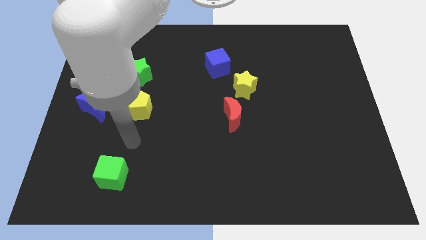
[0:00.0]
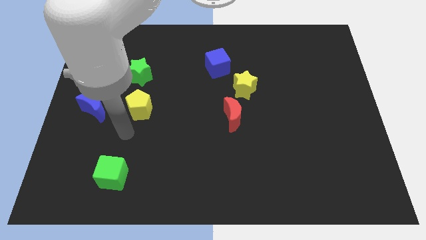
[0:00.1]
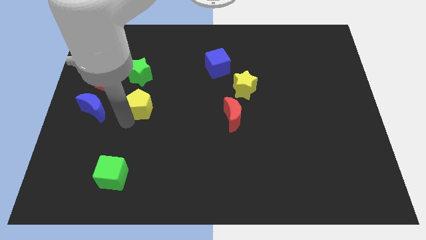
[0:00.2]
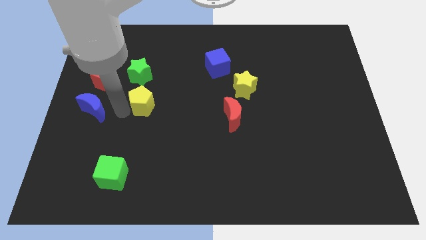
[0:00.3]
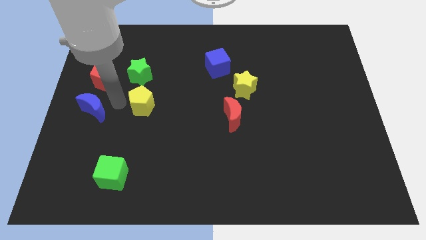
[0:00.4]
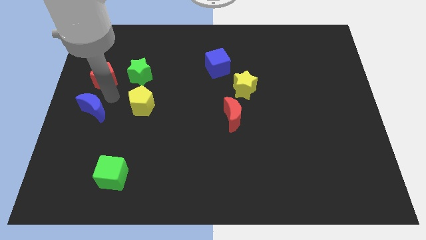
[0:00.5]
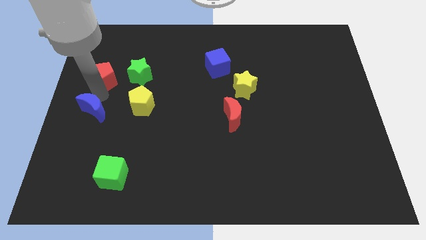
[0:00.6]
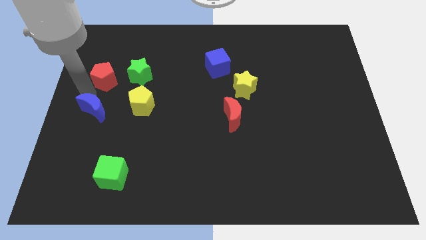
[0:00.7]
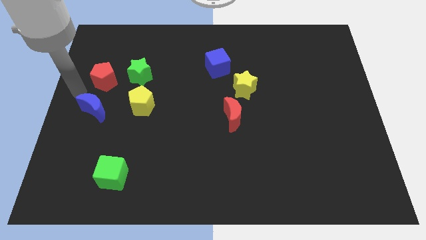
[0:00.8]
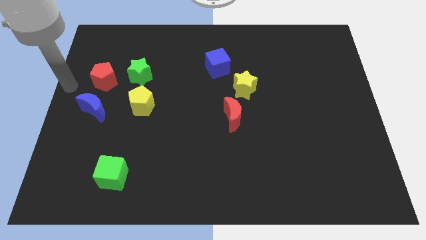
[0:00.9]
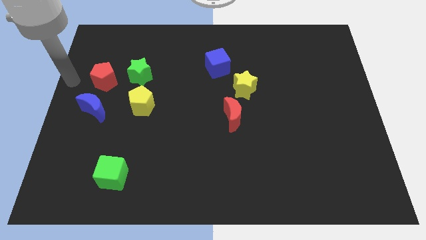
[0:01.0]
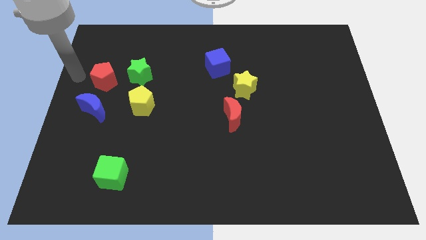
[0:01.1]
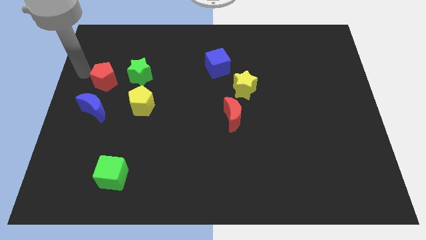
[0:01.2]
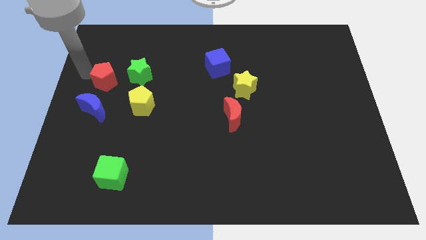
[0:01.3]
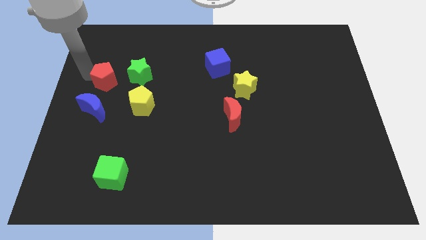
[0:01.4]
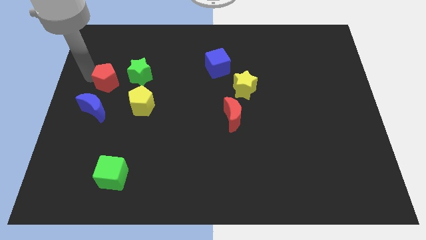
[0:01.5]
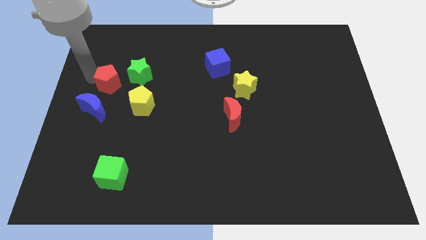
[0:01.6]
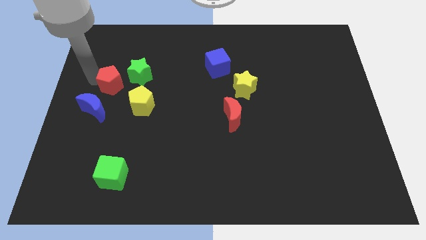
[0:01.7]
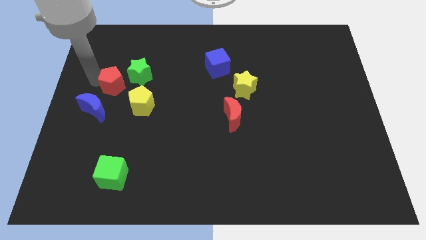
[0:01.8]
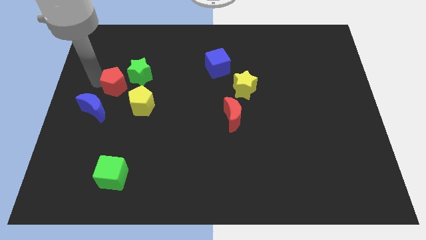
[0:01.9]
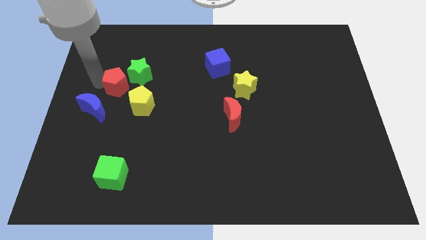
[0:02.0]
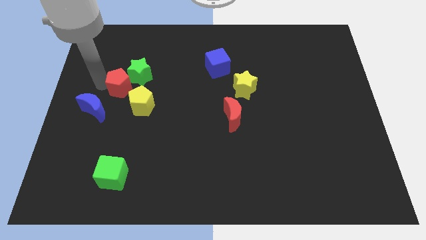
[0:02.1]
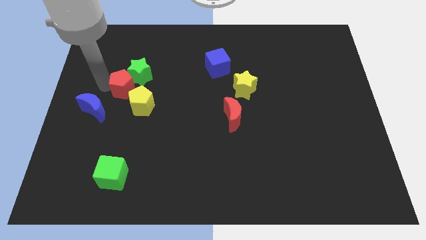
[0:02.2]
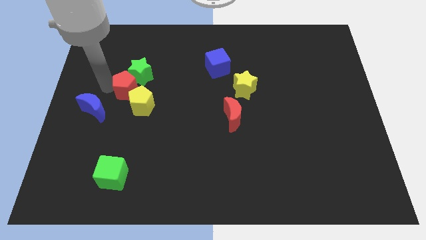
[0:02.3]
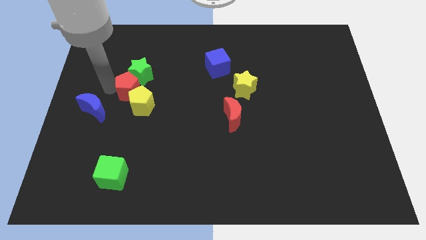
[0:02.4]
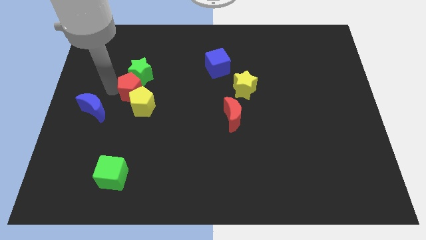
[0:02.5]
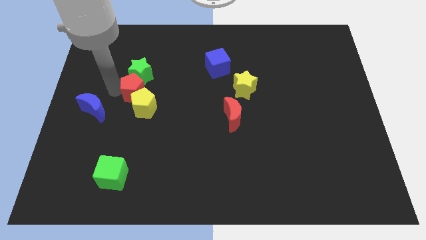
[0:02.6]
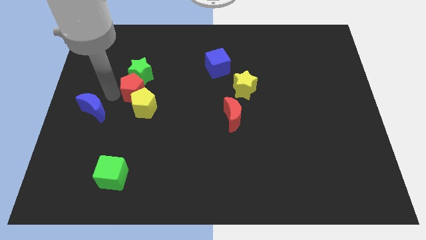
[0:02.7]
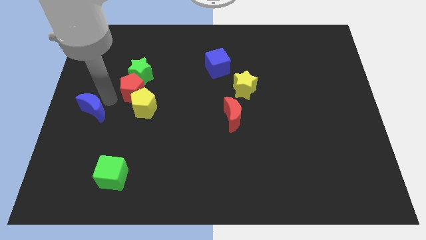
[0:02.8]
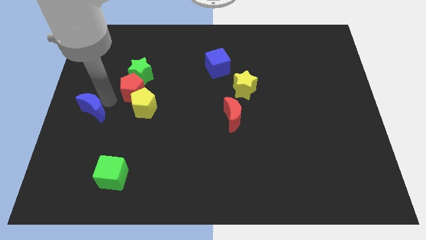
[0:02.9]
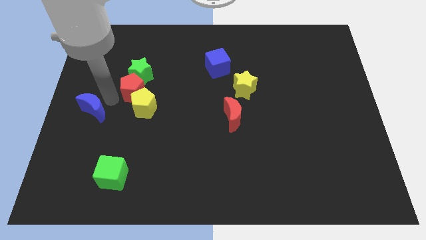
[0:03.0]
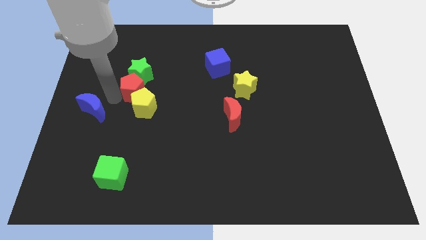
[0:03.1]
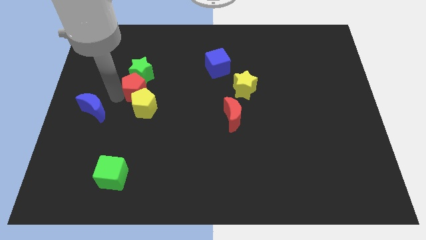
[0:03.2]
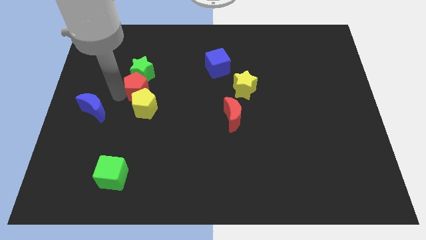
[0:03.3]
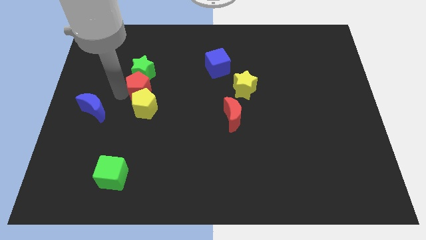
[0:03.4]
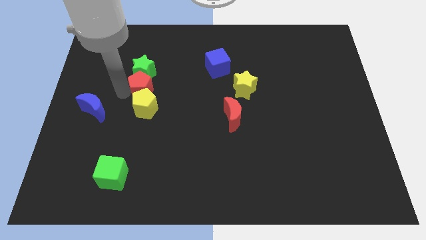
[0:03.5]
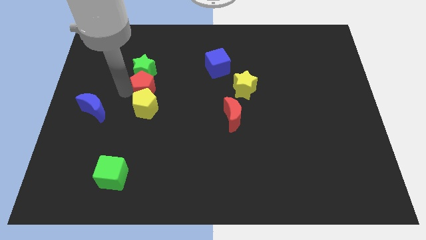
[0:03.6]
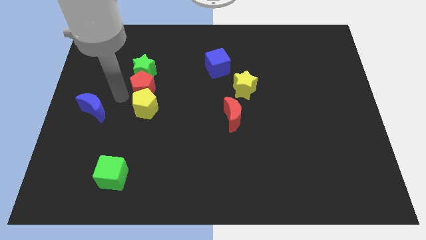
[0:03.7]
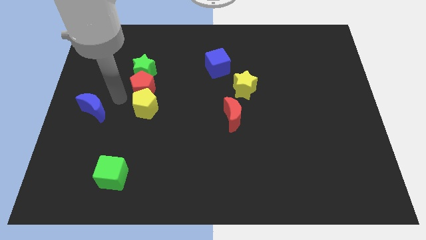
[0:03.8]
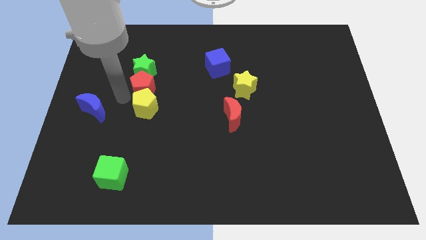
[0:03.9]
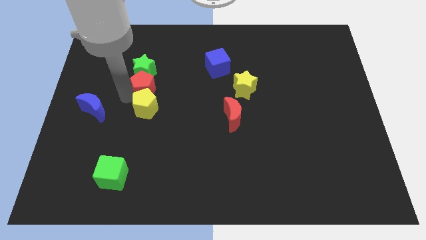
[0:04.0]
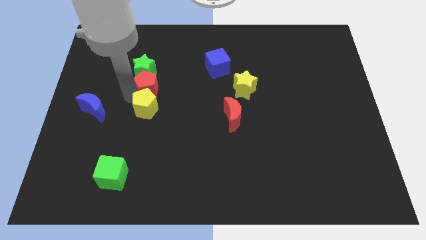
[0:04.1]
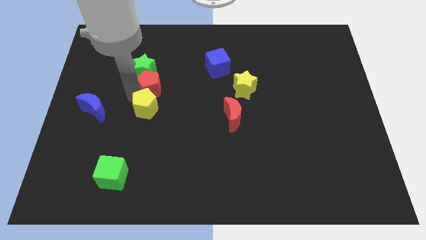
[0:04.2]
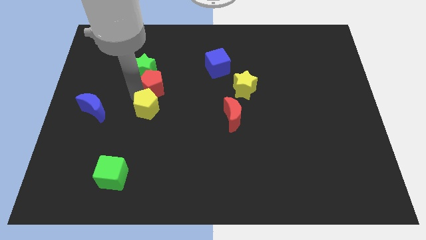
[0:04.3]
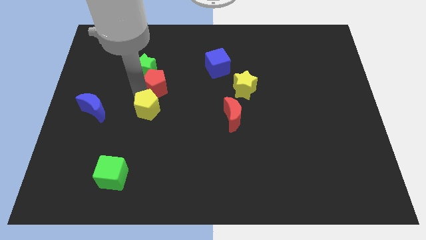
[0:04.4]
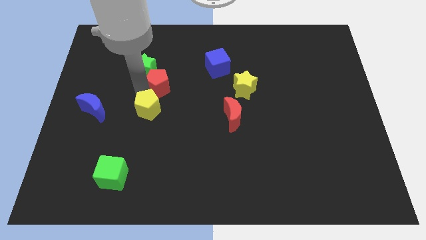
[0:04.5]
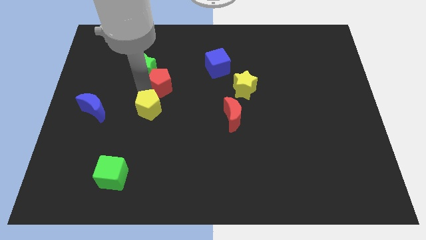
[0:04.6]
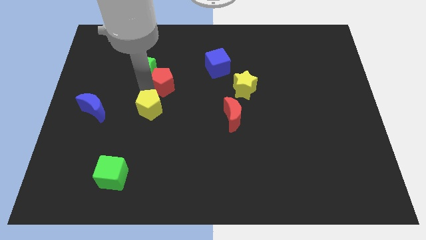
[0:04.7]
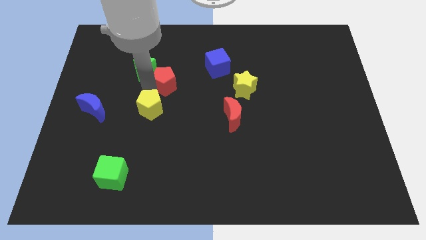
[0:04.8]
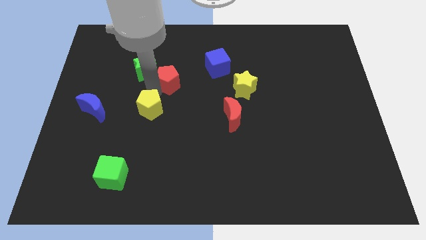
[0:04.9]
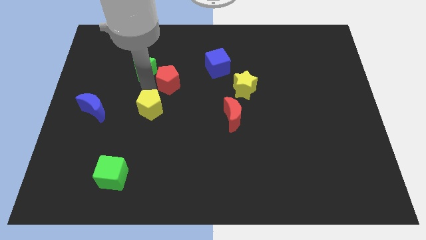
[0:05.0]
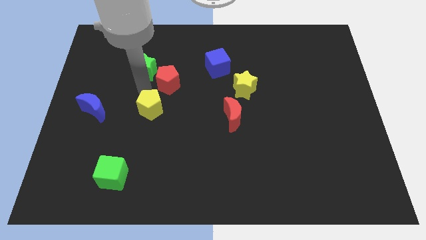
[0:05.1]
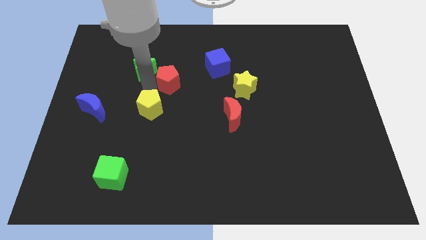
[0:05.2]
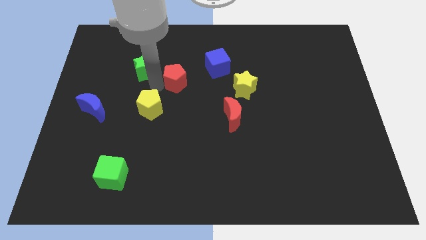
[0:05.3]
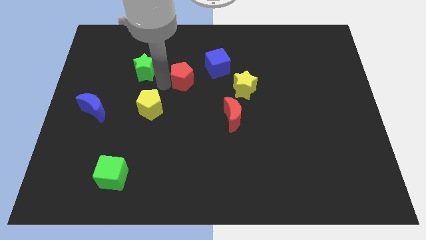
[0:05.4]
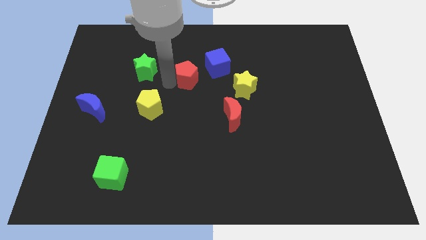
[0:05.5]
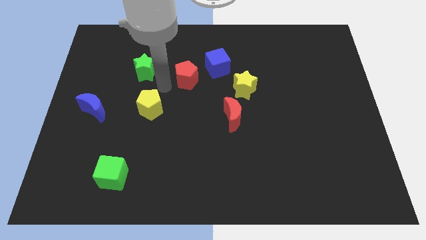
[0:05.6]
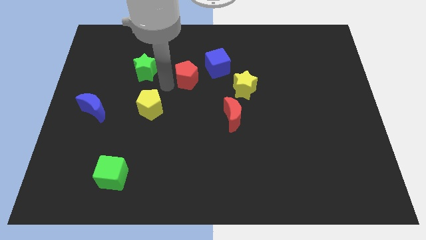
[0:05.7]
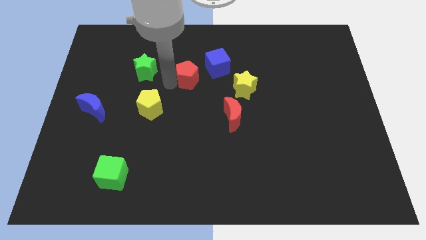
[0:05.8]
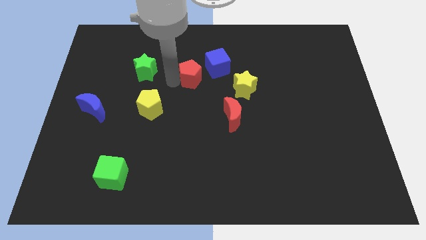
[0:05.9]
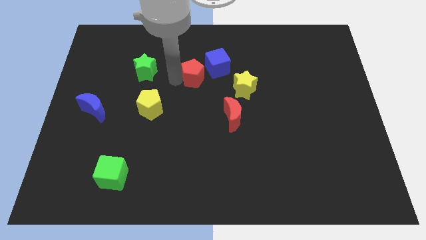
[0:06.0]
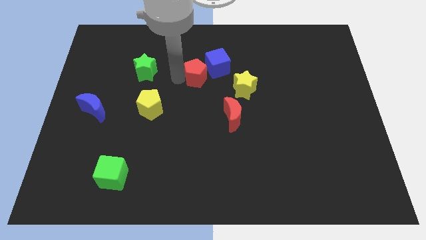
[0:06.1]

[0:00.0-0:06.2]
push the red pentagon towards the blue cube

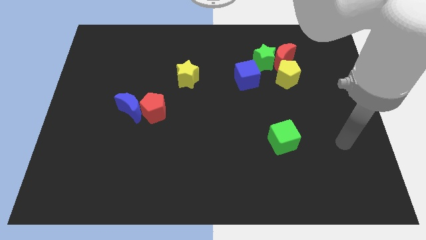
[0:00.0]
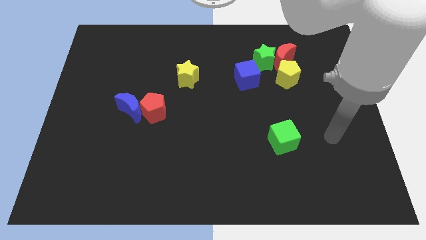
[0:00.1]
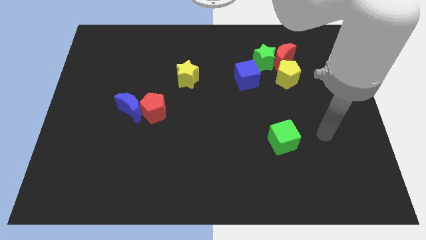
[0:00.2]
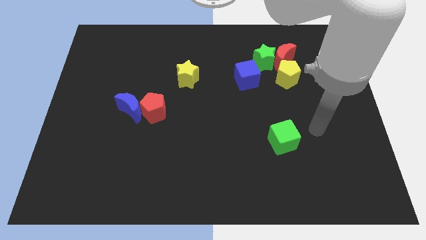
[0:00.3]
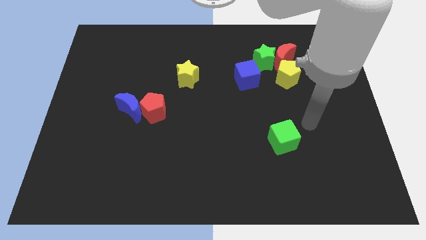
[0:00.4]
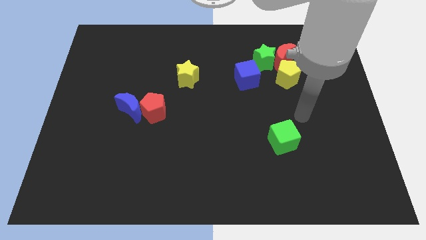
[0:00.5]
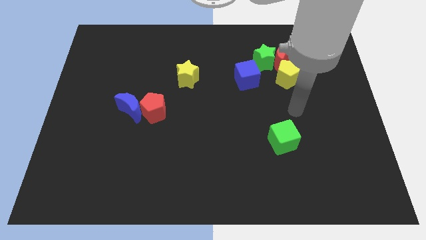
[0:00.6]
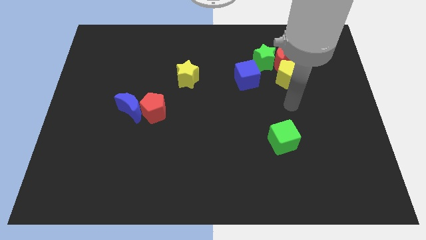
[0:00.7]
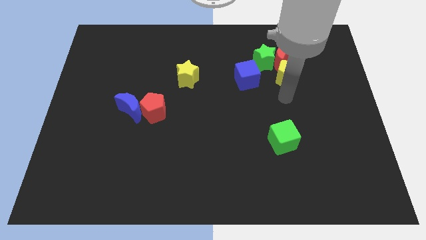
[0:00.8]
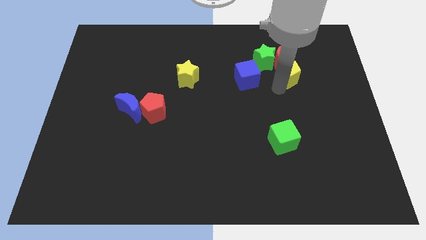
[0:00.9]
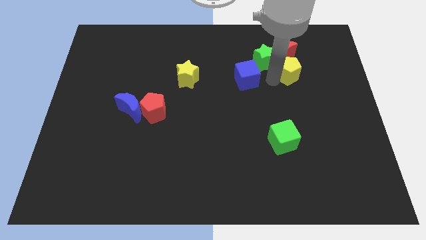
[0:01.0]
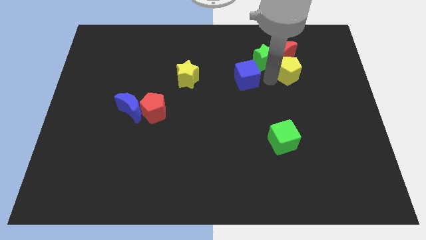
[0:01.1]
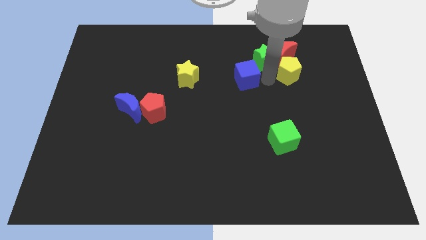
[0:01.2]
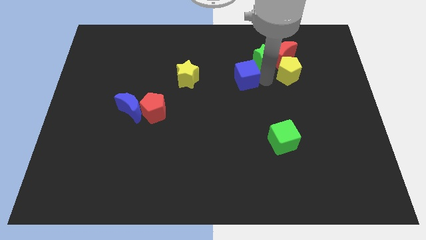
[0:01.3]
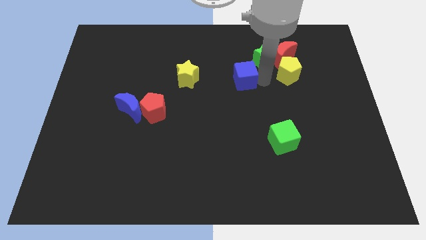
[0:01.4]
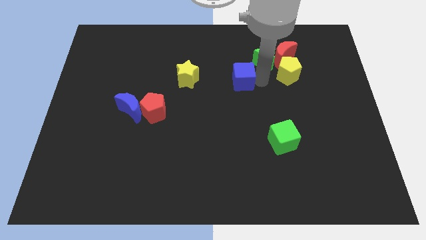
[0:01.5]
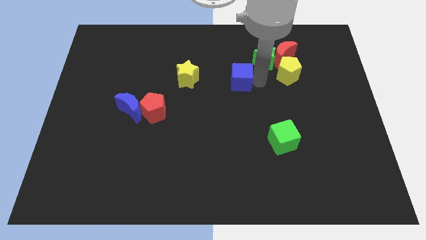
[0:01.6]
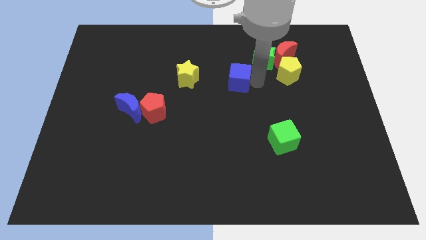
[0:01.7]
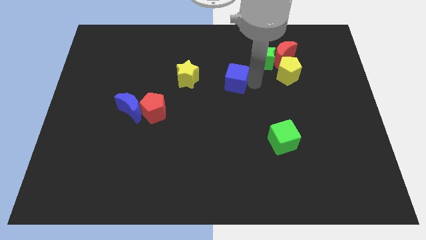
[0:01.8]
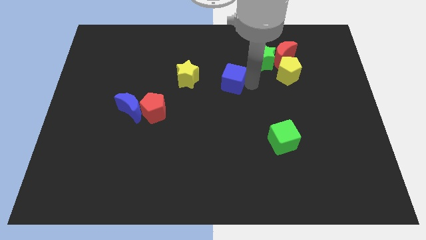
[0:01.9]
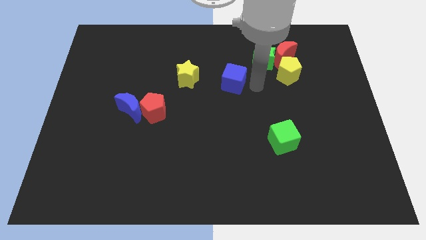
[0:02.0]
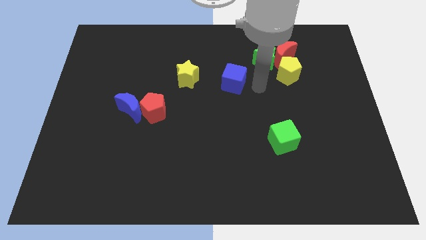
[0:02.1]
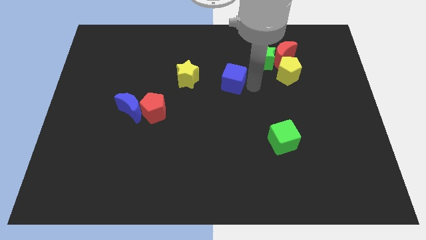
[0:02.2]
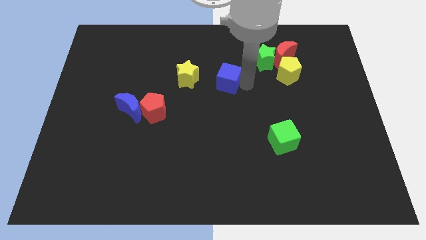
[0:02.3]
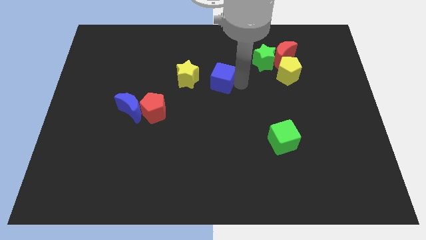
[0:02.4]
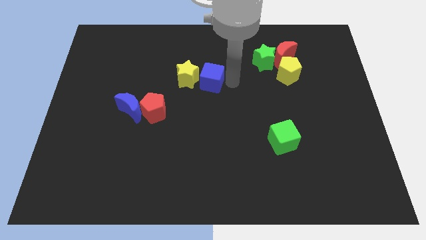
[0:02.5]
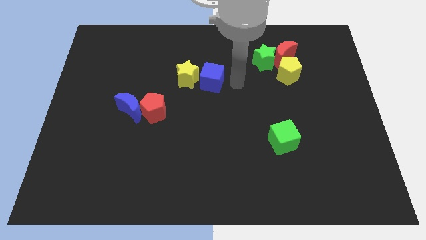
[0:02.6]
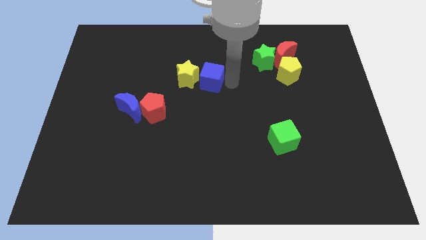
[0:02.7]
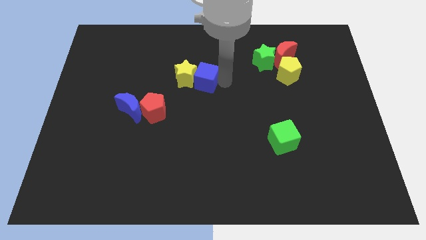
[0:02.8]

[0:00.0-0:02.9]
slide the blue cube to the yellow star
